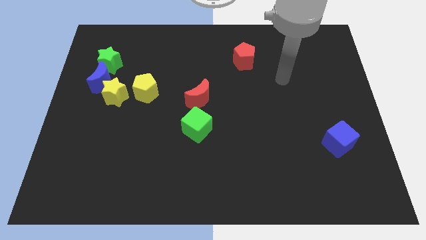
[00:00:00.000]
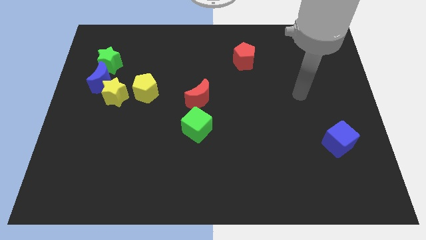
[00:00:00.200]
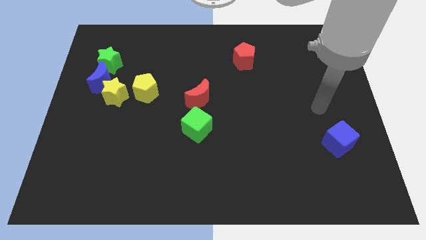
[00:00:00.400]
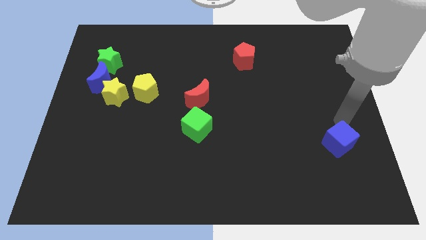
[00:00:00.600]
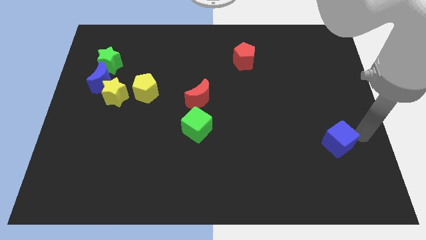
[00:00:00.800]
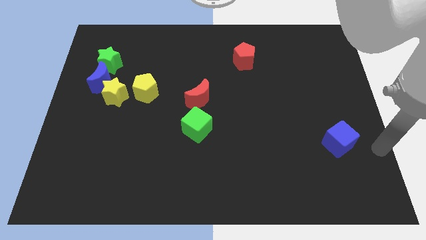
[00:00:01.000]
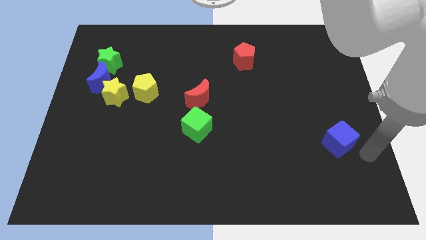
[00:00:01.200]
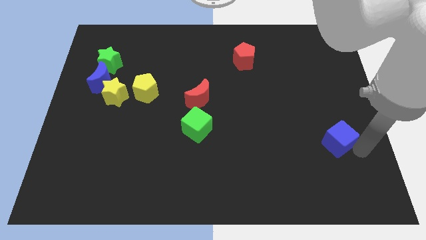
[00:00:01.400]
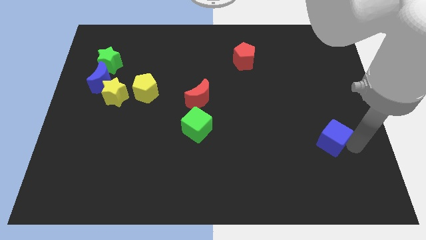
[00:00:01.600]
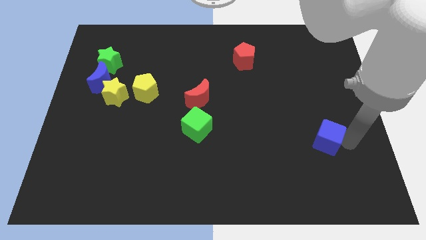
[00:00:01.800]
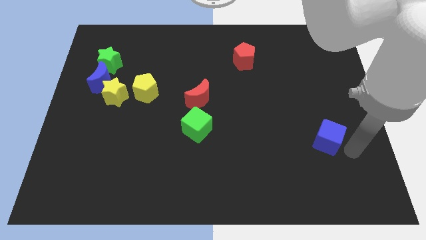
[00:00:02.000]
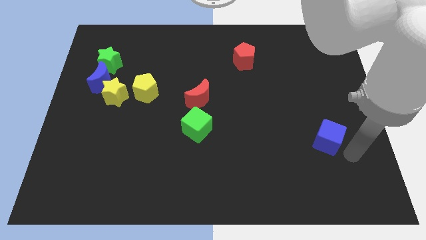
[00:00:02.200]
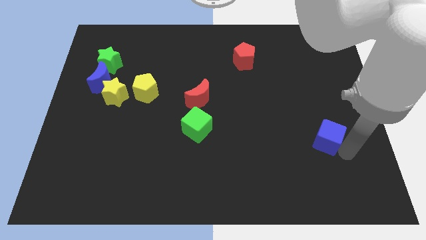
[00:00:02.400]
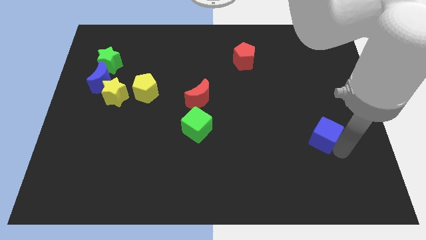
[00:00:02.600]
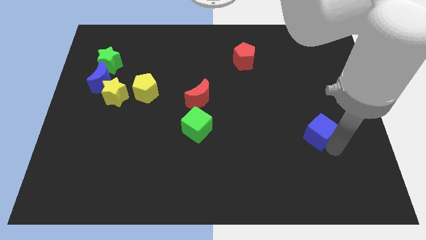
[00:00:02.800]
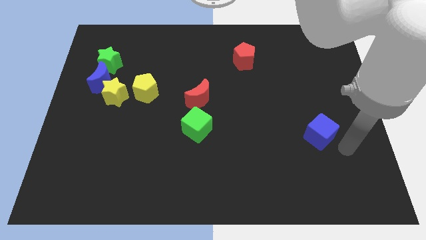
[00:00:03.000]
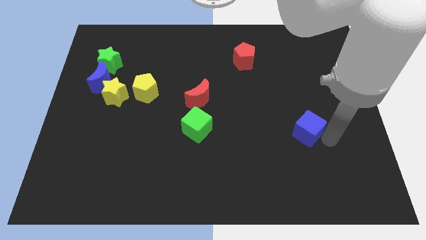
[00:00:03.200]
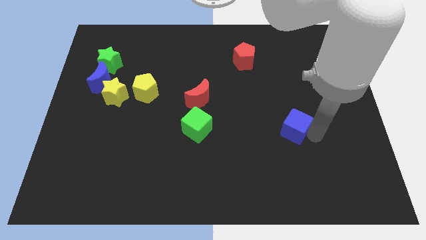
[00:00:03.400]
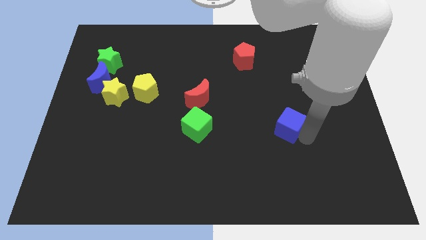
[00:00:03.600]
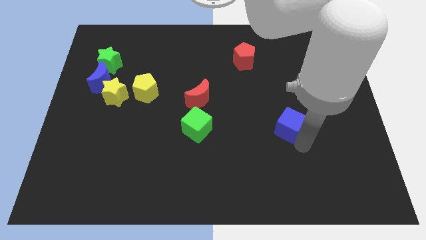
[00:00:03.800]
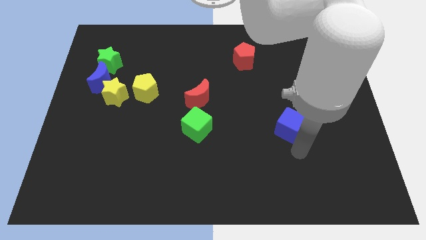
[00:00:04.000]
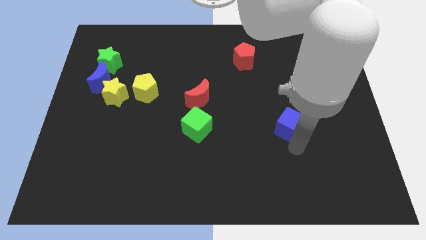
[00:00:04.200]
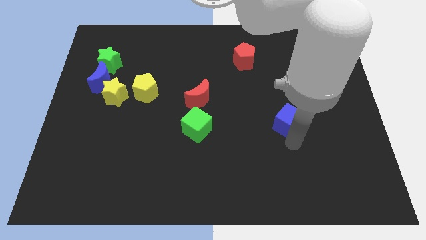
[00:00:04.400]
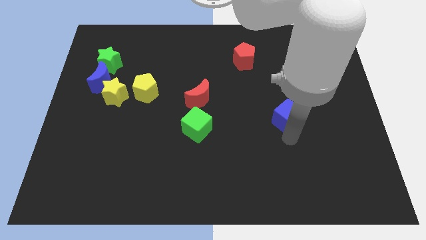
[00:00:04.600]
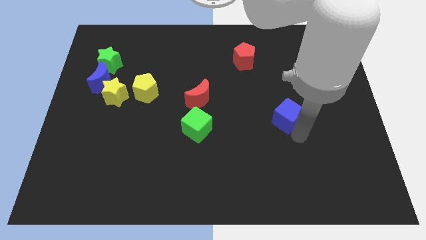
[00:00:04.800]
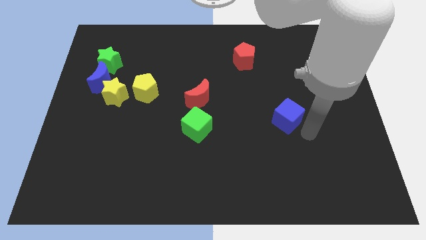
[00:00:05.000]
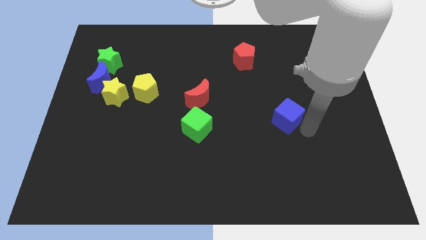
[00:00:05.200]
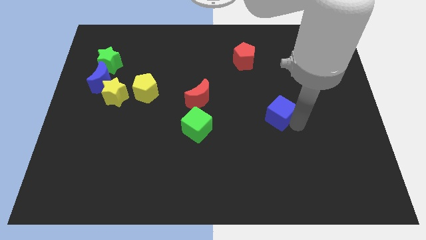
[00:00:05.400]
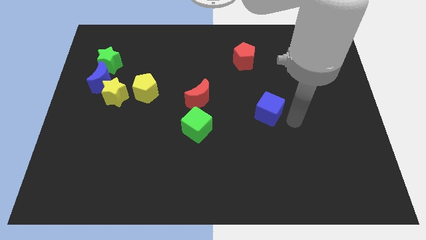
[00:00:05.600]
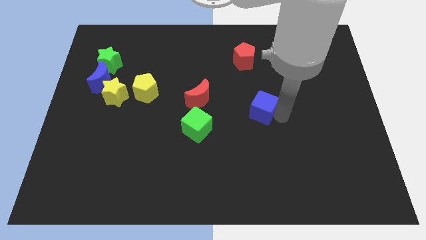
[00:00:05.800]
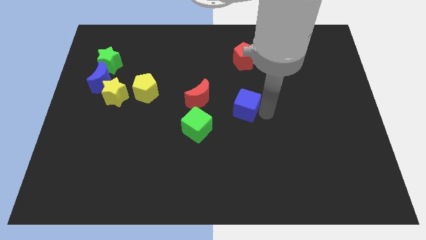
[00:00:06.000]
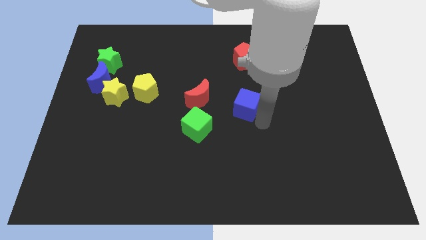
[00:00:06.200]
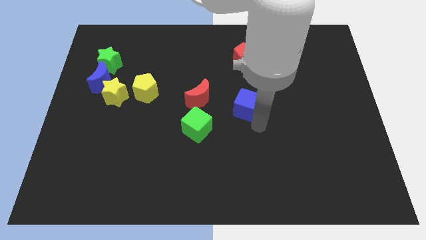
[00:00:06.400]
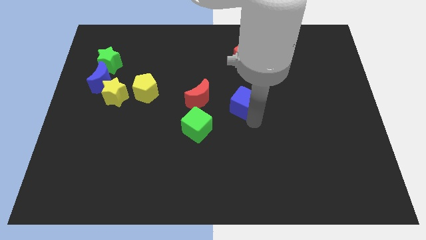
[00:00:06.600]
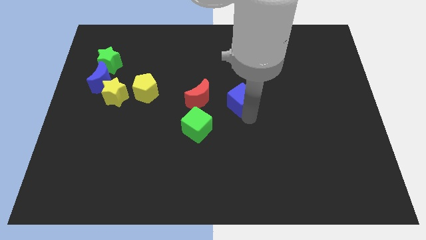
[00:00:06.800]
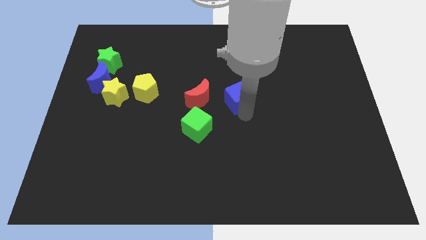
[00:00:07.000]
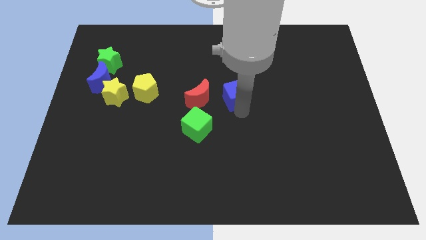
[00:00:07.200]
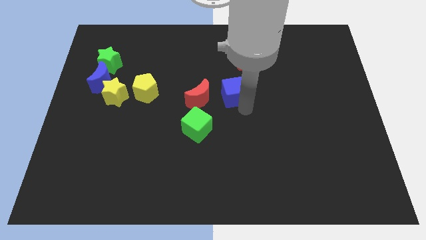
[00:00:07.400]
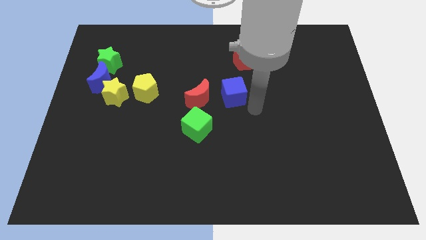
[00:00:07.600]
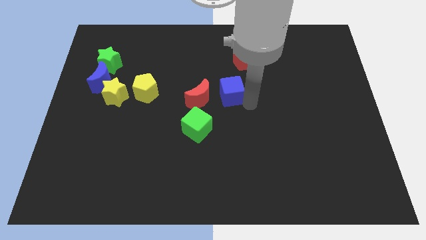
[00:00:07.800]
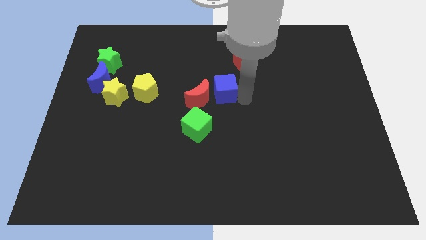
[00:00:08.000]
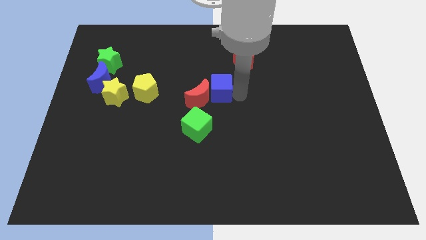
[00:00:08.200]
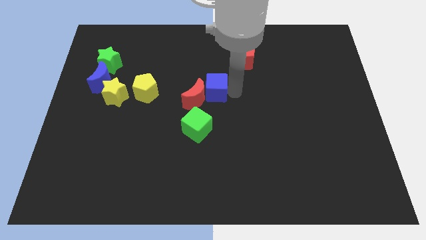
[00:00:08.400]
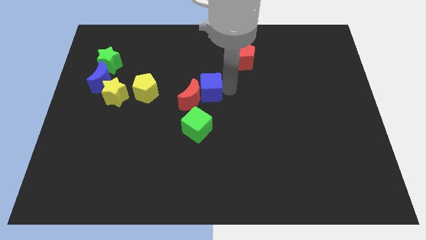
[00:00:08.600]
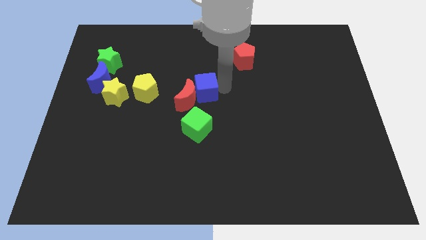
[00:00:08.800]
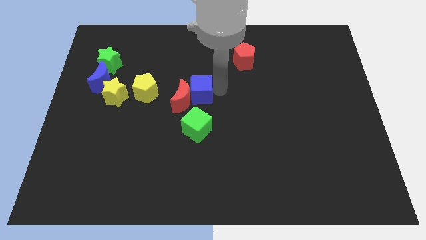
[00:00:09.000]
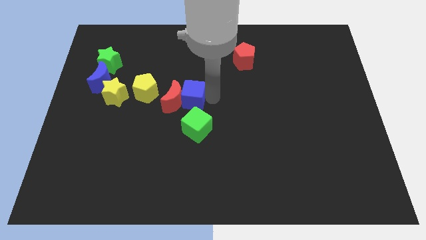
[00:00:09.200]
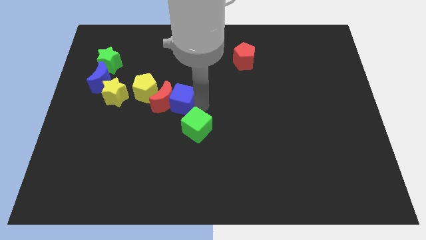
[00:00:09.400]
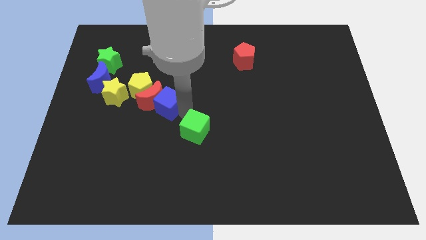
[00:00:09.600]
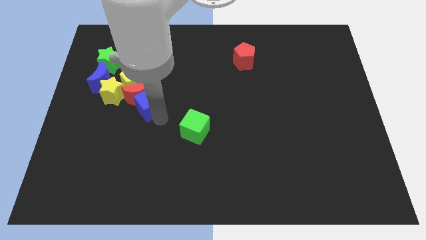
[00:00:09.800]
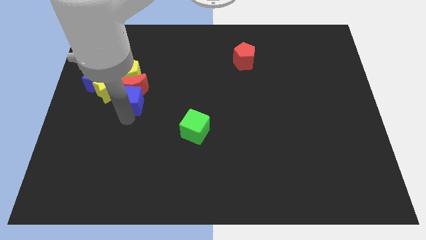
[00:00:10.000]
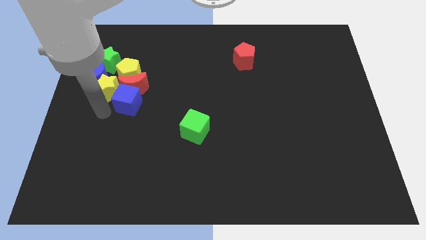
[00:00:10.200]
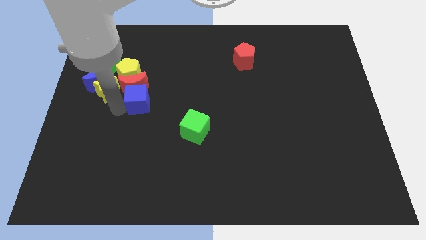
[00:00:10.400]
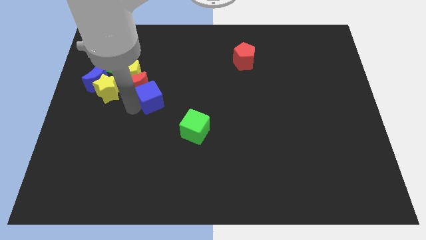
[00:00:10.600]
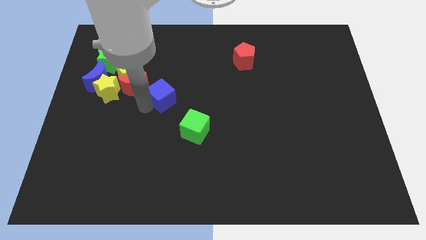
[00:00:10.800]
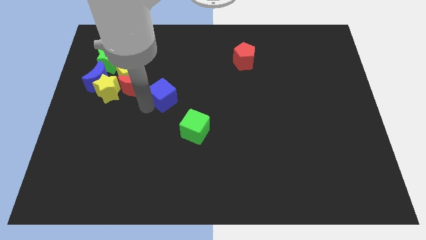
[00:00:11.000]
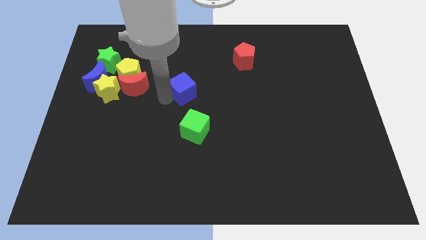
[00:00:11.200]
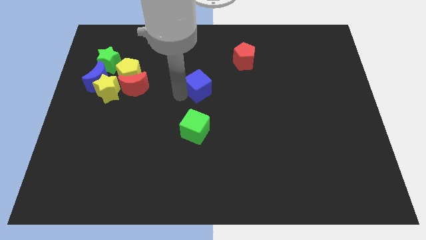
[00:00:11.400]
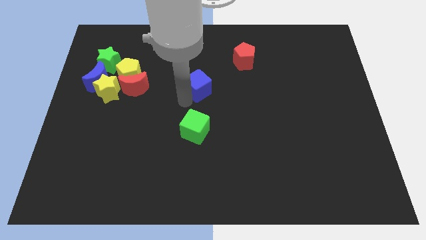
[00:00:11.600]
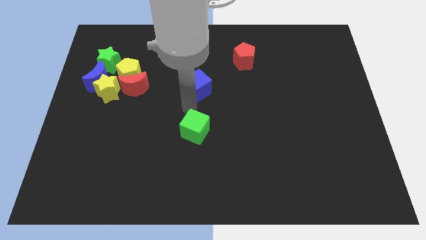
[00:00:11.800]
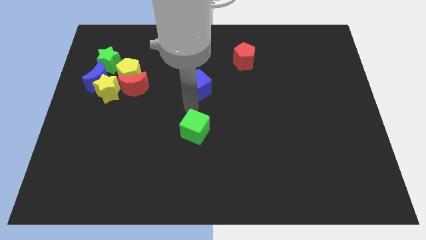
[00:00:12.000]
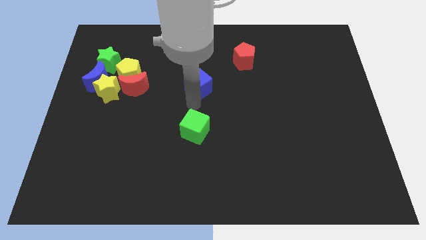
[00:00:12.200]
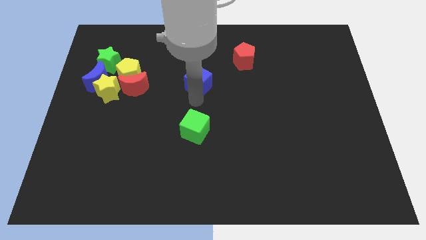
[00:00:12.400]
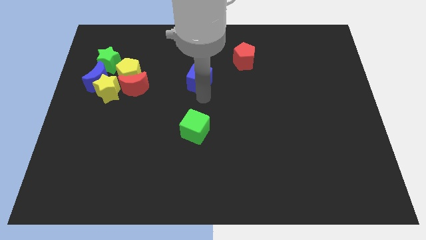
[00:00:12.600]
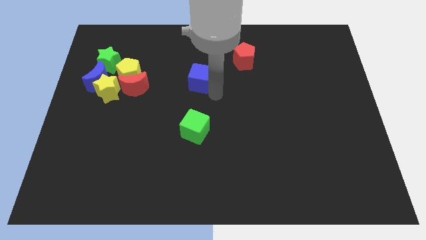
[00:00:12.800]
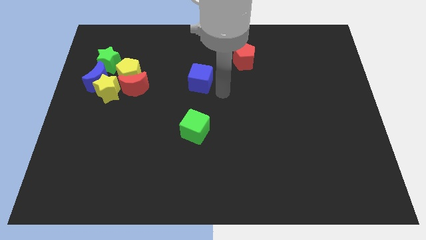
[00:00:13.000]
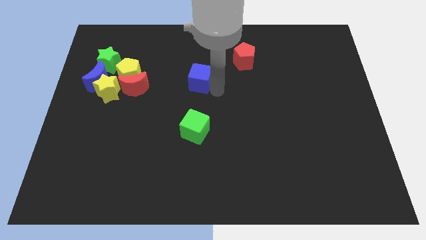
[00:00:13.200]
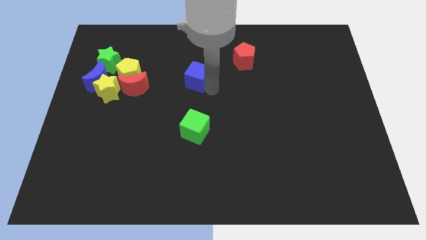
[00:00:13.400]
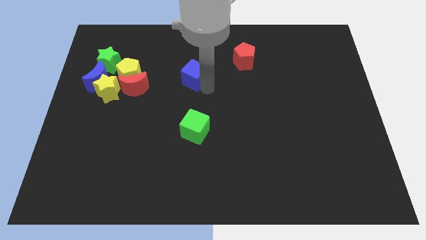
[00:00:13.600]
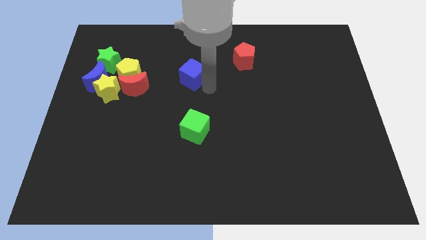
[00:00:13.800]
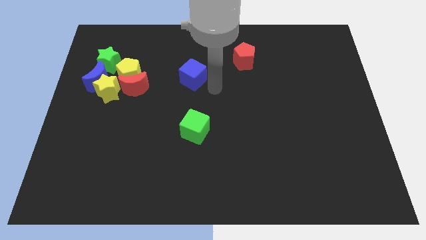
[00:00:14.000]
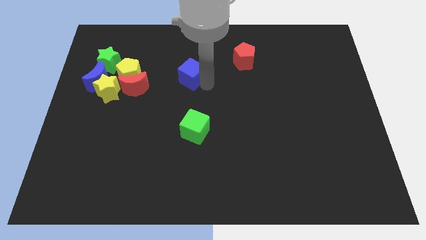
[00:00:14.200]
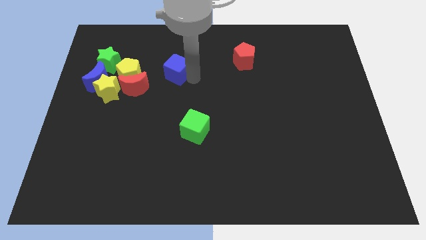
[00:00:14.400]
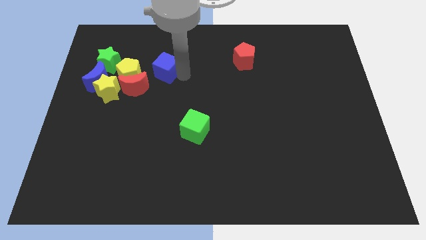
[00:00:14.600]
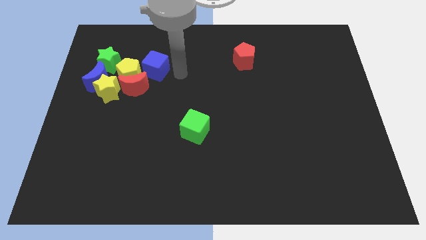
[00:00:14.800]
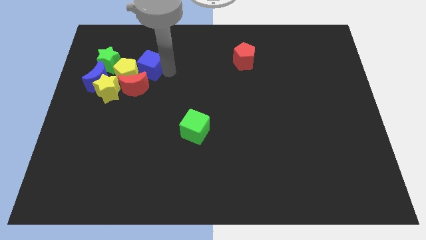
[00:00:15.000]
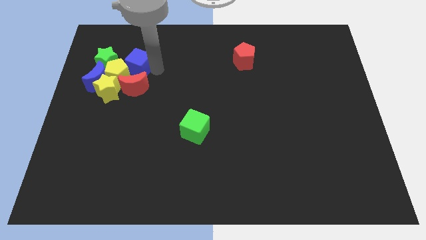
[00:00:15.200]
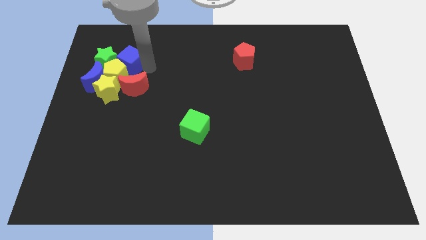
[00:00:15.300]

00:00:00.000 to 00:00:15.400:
put the blue cube close to the green star
